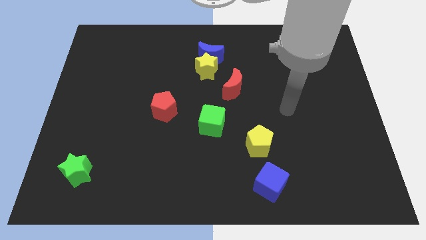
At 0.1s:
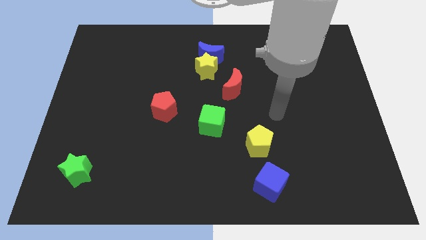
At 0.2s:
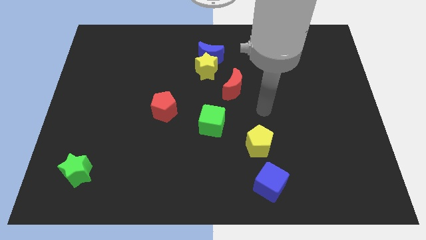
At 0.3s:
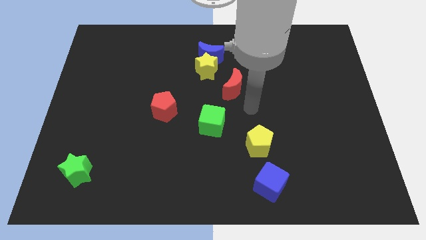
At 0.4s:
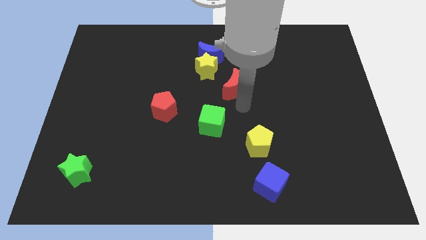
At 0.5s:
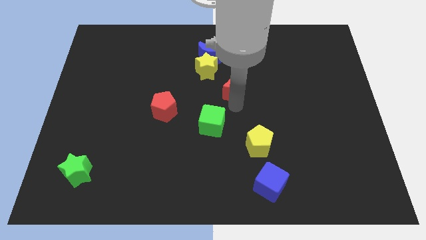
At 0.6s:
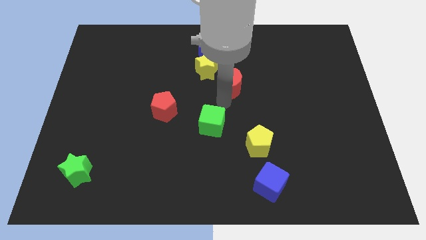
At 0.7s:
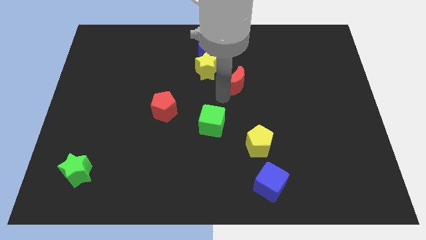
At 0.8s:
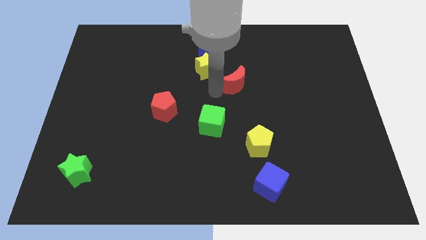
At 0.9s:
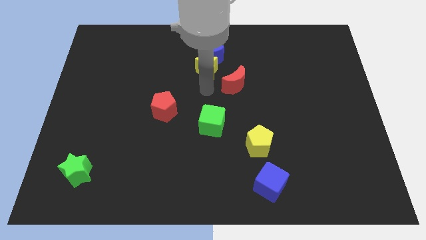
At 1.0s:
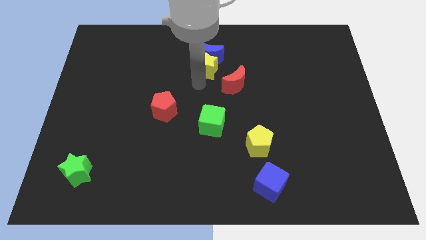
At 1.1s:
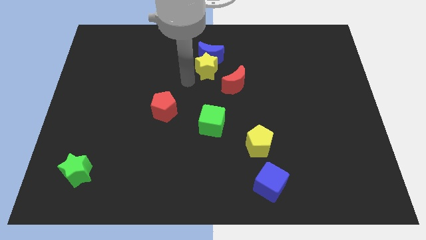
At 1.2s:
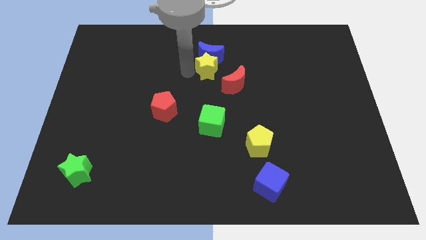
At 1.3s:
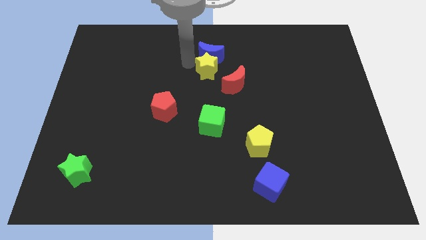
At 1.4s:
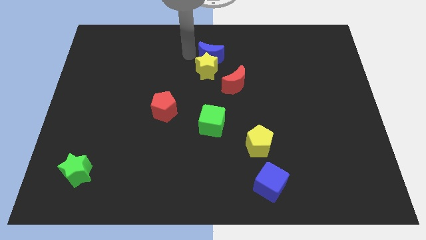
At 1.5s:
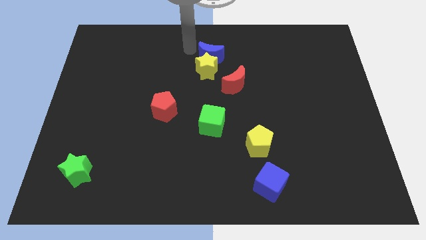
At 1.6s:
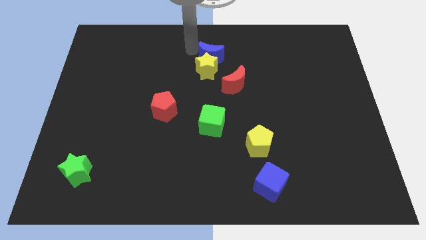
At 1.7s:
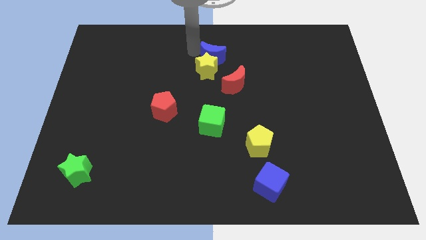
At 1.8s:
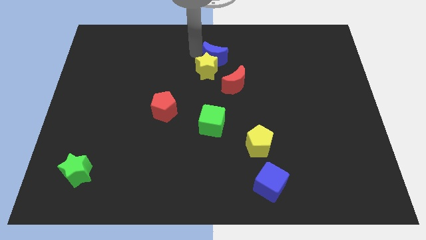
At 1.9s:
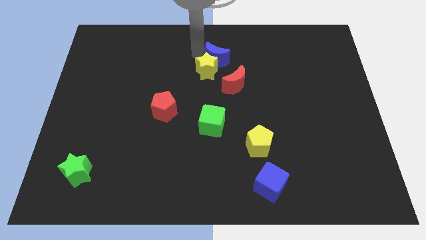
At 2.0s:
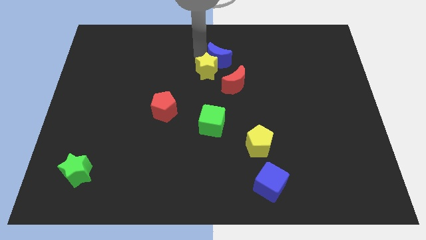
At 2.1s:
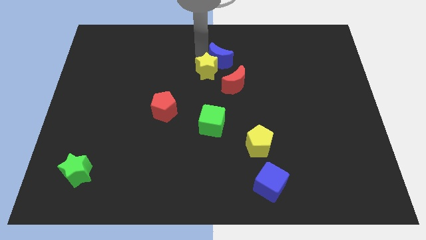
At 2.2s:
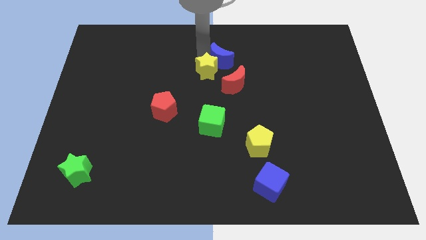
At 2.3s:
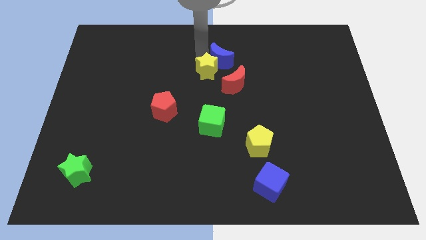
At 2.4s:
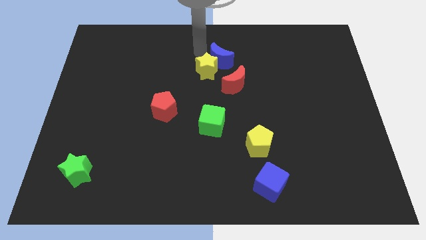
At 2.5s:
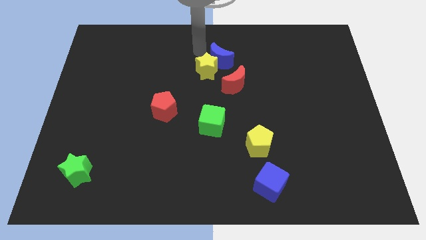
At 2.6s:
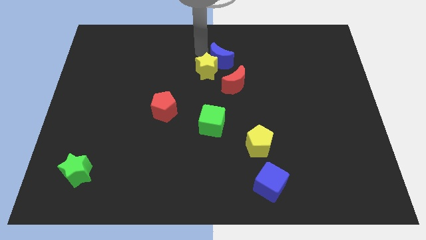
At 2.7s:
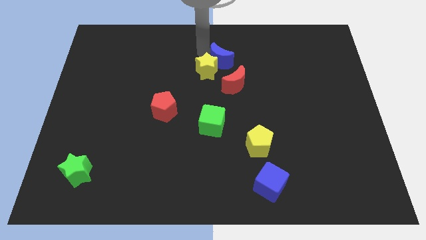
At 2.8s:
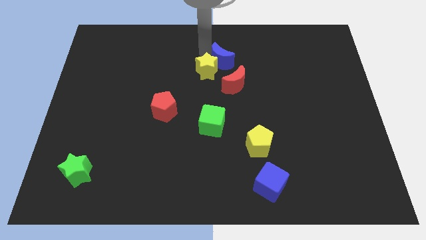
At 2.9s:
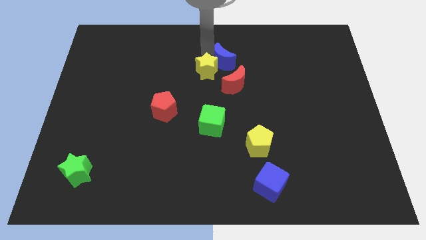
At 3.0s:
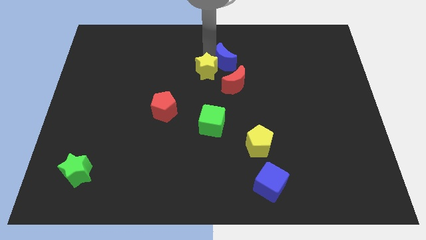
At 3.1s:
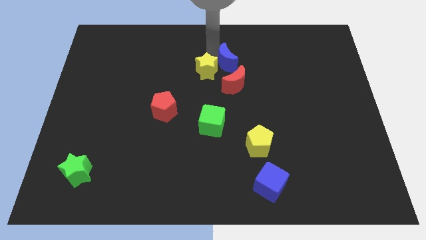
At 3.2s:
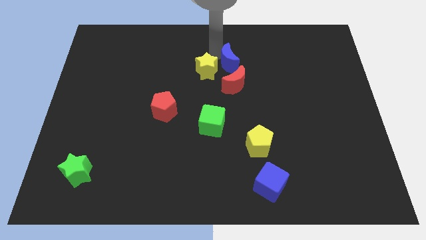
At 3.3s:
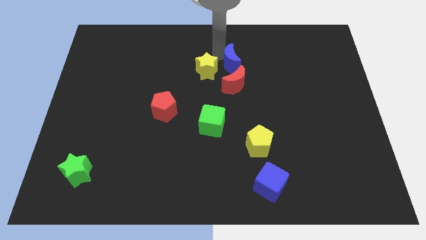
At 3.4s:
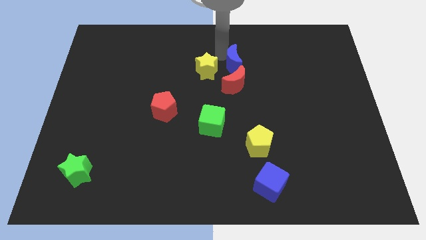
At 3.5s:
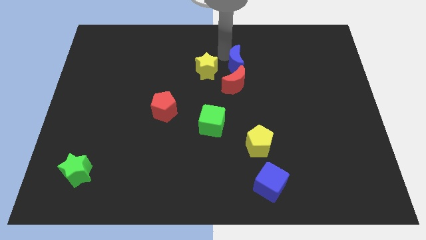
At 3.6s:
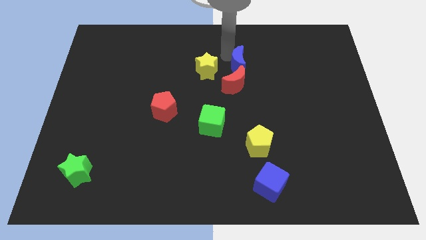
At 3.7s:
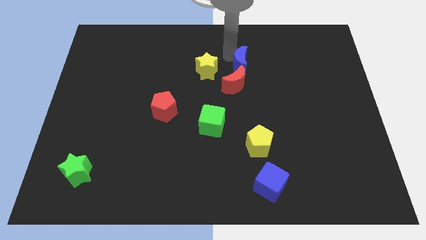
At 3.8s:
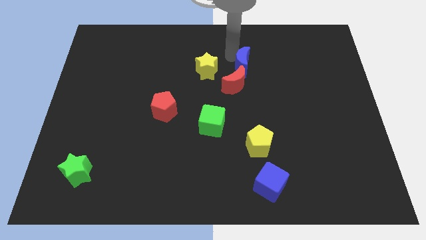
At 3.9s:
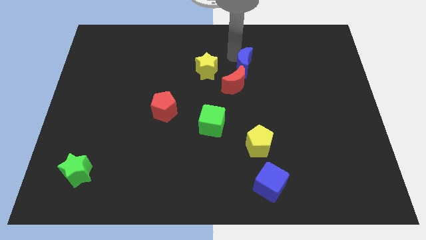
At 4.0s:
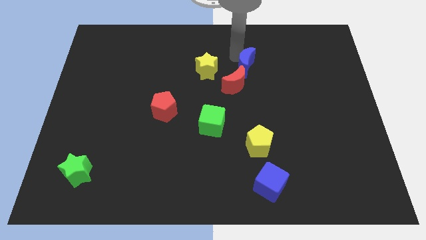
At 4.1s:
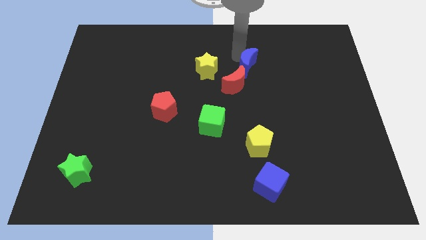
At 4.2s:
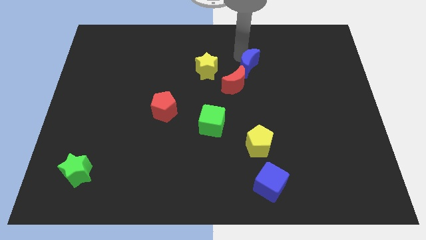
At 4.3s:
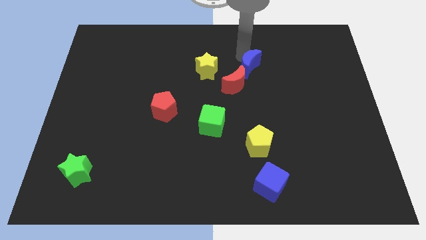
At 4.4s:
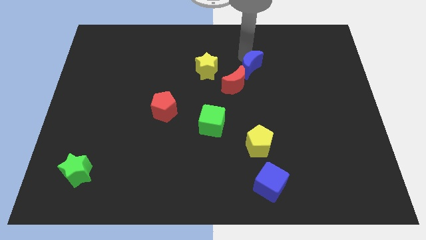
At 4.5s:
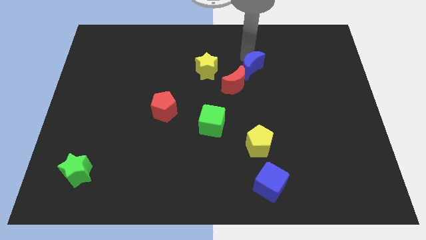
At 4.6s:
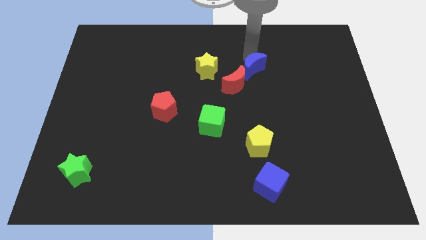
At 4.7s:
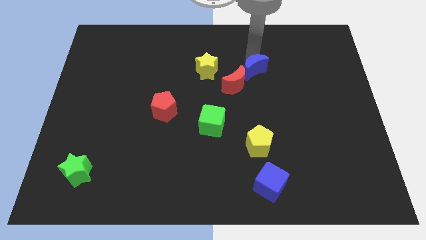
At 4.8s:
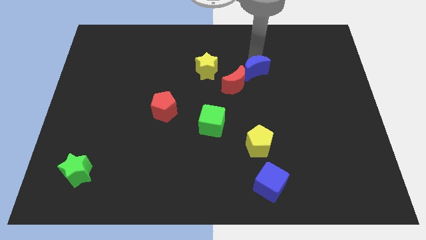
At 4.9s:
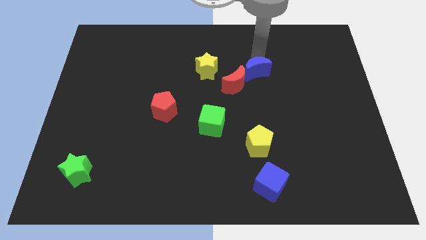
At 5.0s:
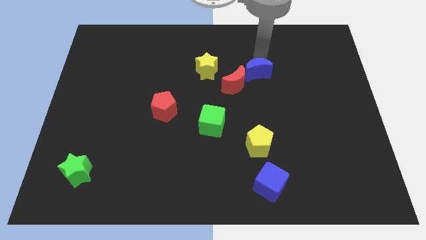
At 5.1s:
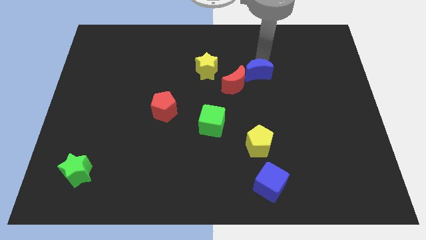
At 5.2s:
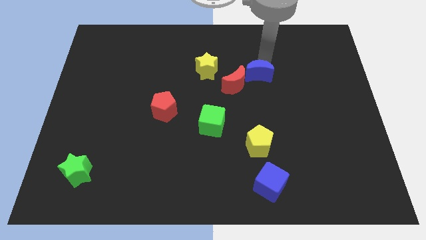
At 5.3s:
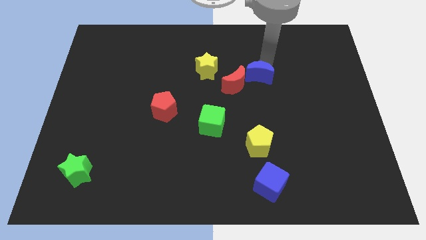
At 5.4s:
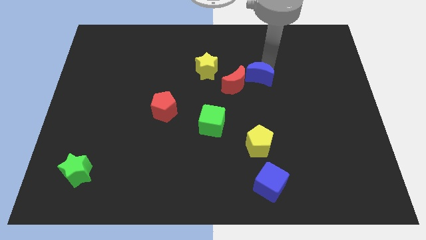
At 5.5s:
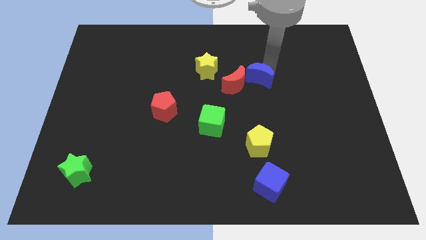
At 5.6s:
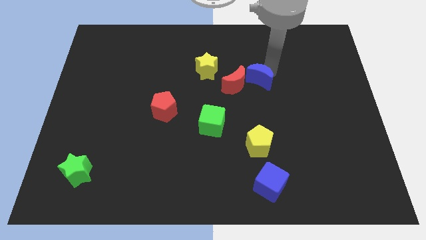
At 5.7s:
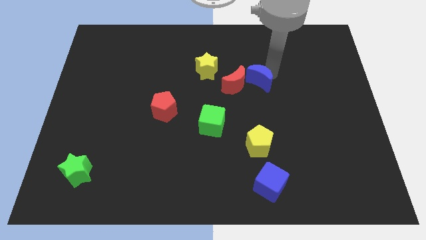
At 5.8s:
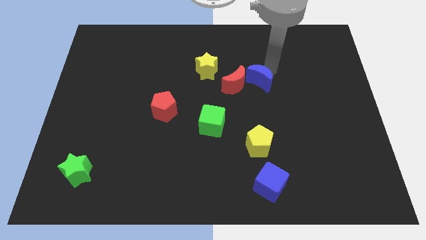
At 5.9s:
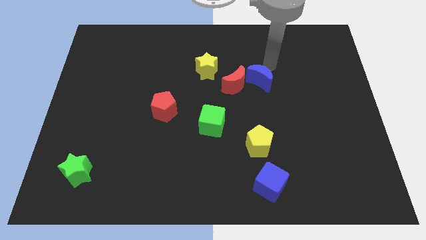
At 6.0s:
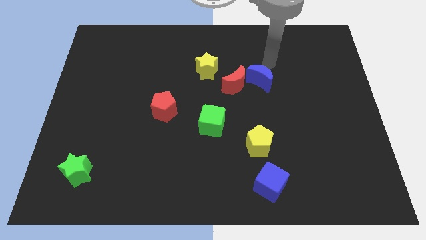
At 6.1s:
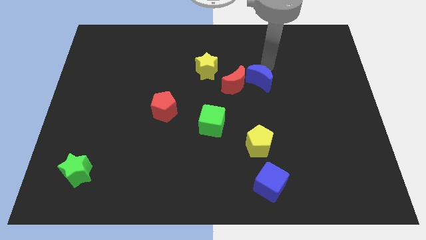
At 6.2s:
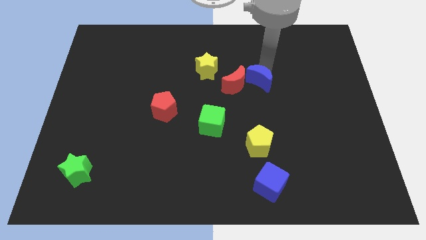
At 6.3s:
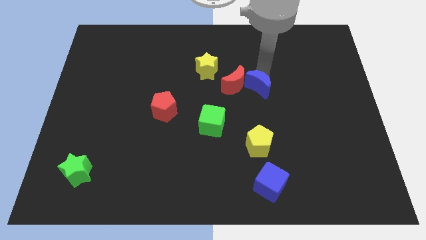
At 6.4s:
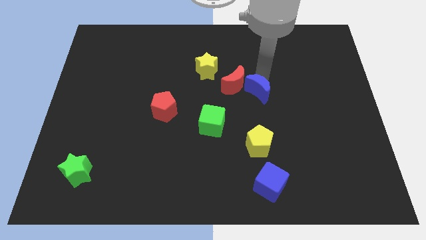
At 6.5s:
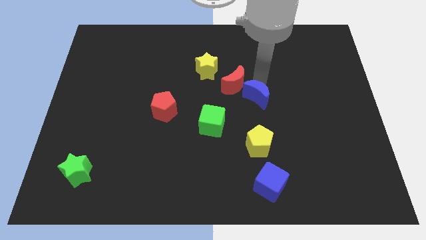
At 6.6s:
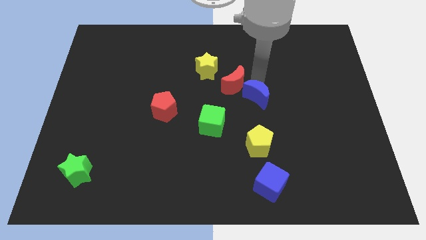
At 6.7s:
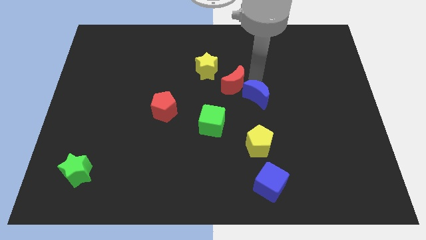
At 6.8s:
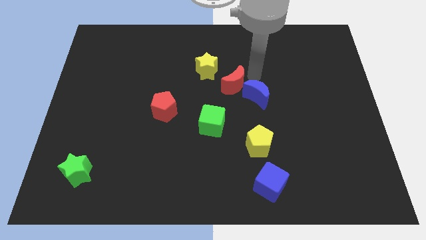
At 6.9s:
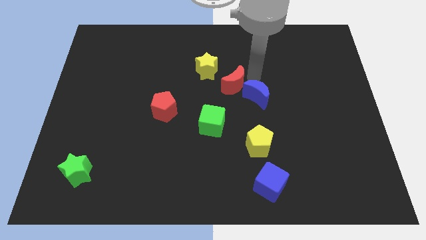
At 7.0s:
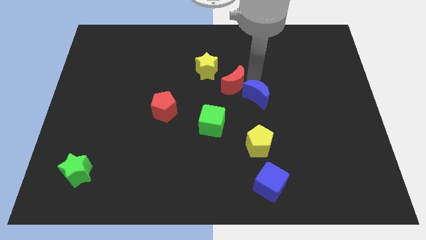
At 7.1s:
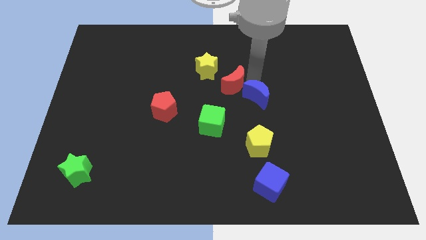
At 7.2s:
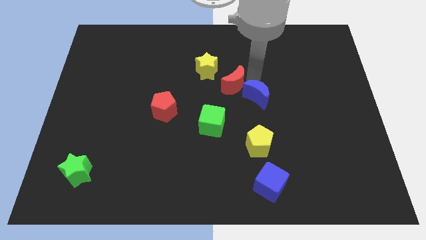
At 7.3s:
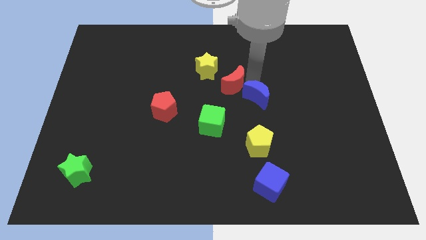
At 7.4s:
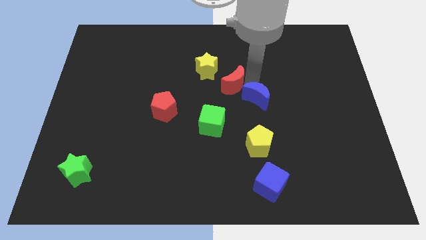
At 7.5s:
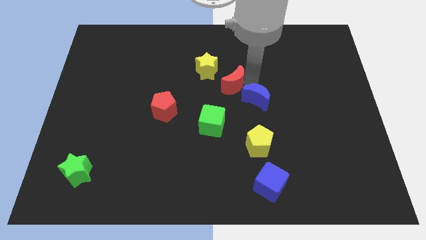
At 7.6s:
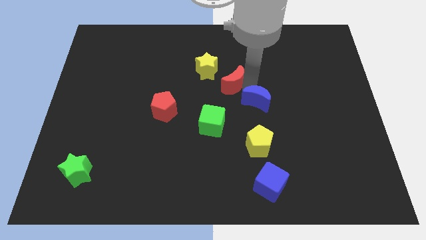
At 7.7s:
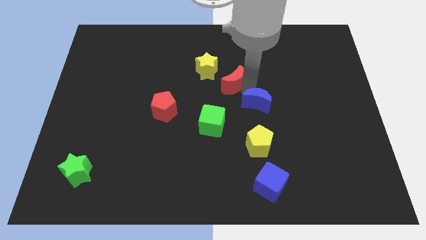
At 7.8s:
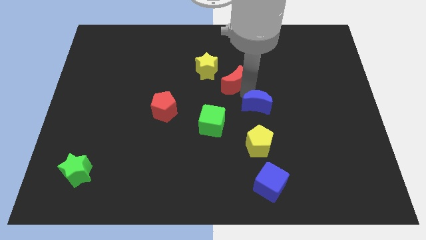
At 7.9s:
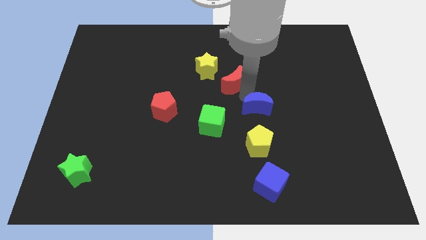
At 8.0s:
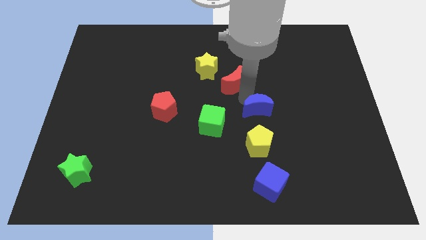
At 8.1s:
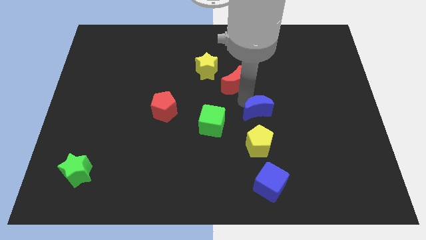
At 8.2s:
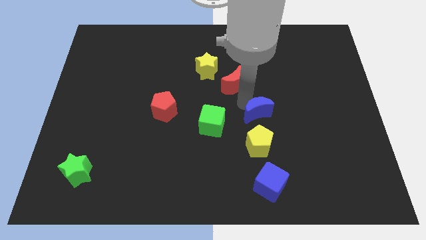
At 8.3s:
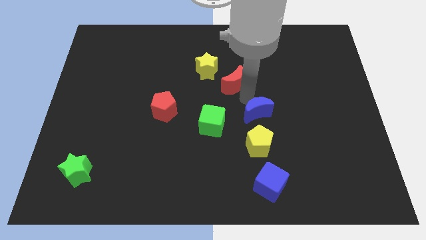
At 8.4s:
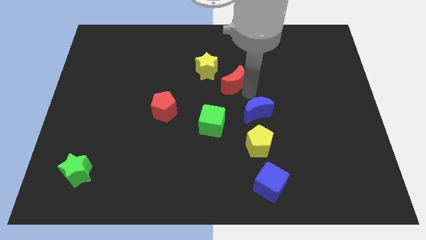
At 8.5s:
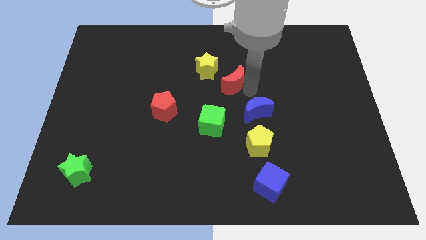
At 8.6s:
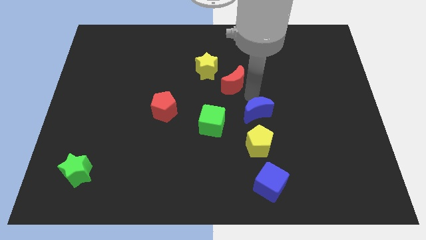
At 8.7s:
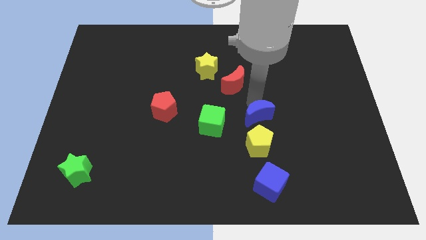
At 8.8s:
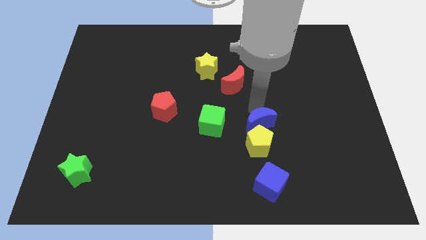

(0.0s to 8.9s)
put the blue moon to the top of the blue cube
